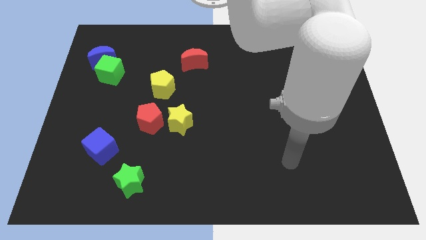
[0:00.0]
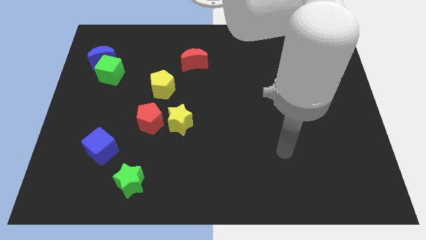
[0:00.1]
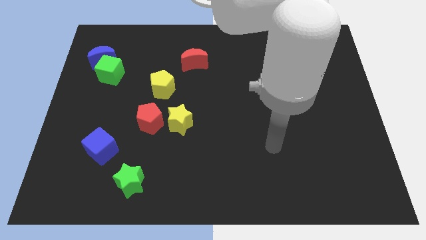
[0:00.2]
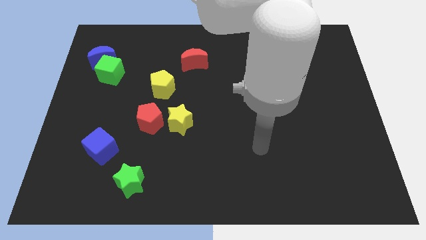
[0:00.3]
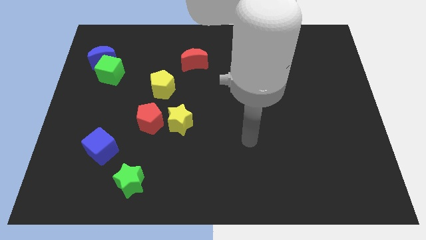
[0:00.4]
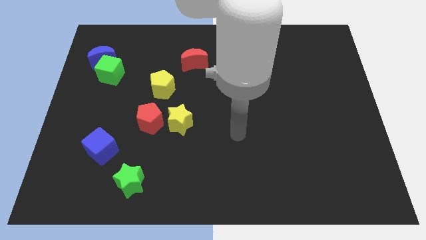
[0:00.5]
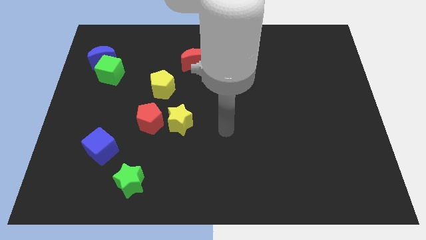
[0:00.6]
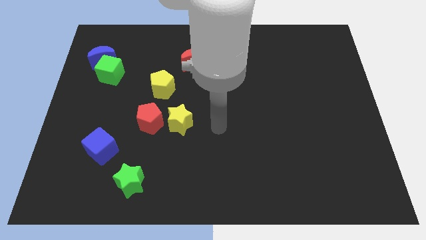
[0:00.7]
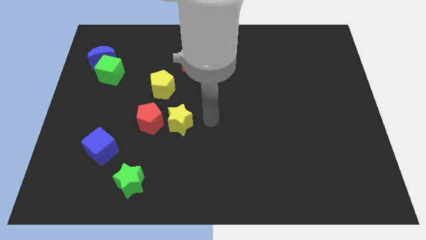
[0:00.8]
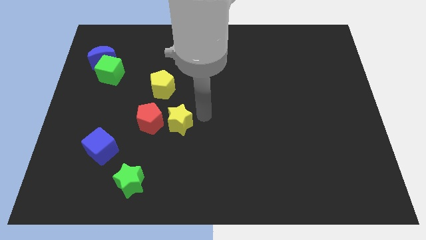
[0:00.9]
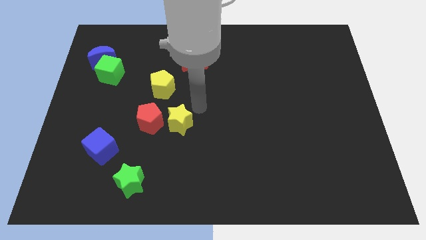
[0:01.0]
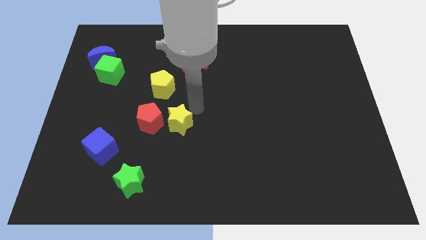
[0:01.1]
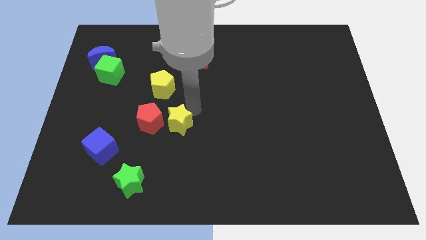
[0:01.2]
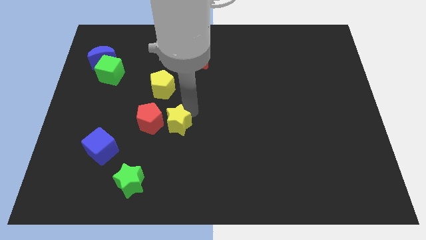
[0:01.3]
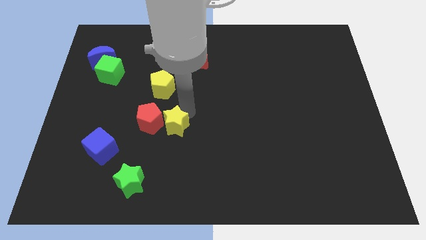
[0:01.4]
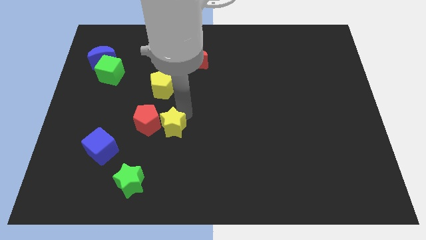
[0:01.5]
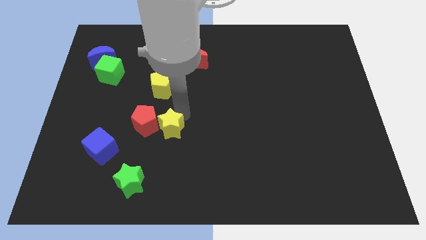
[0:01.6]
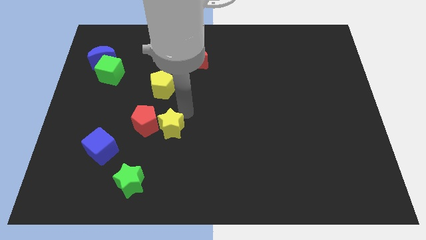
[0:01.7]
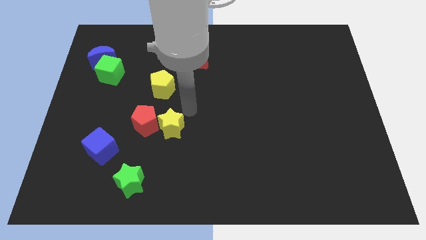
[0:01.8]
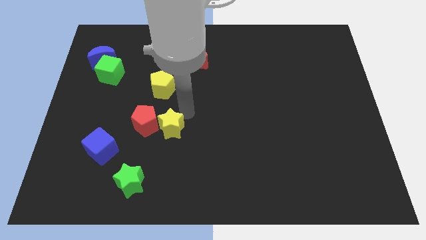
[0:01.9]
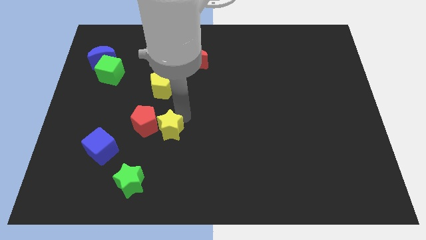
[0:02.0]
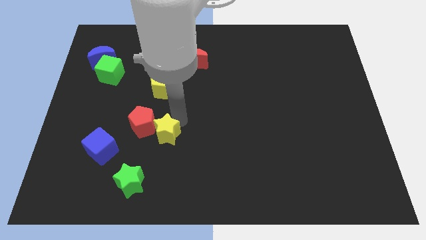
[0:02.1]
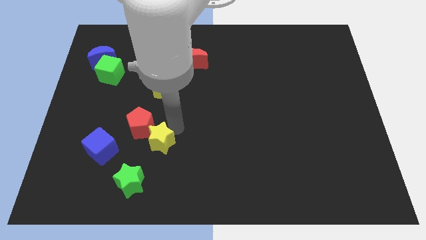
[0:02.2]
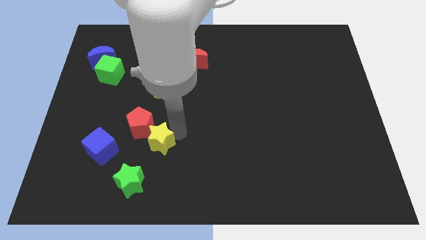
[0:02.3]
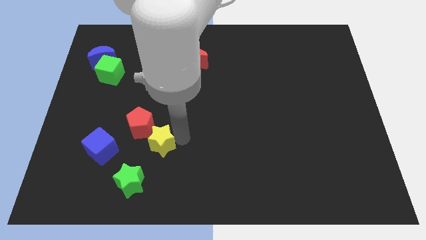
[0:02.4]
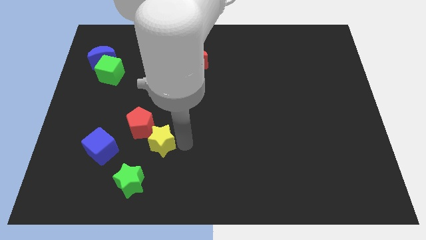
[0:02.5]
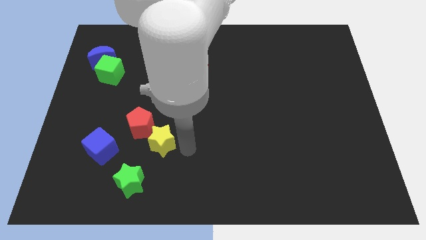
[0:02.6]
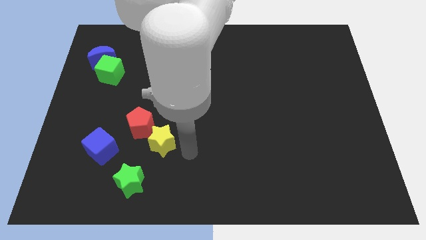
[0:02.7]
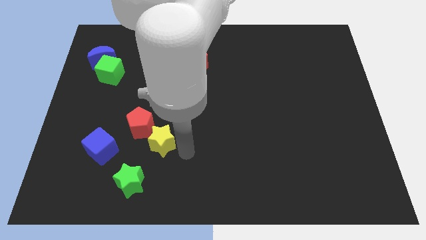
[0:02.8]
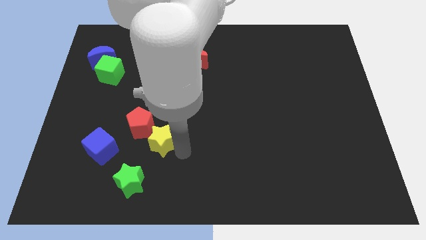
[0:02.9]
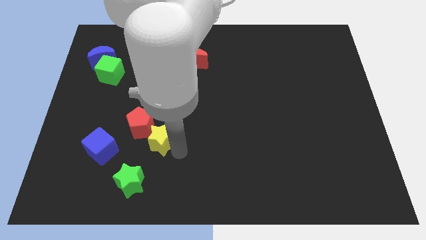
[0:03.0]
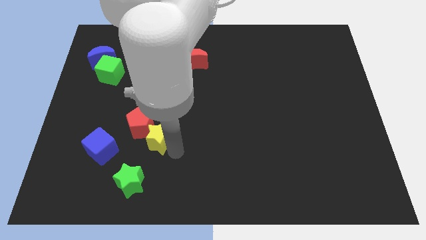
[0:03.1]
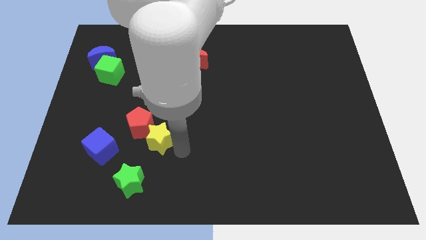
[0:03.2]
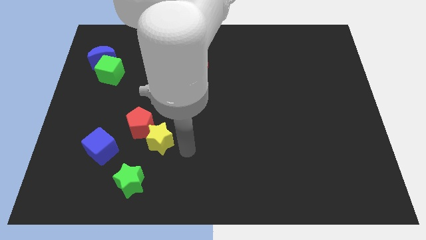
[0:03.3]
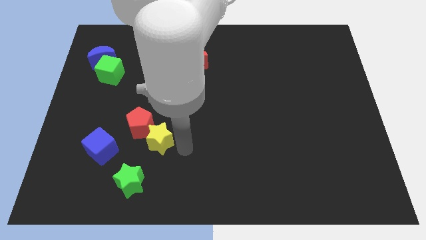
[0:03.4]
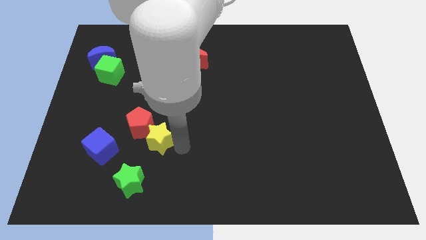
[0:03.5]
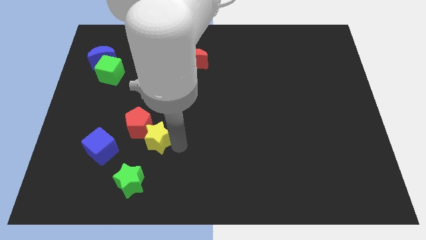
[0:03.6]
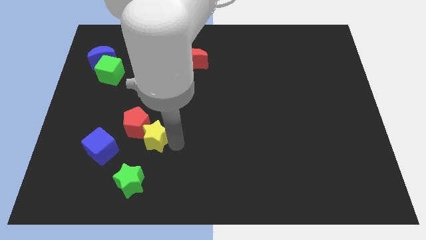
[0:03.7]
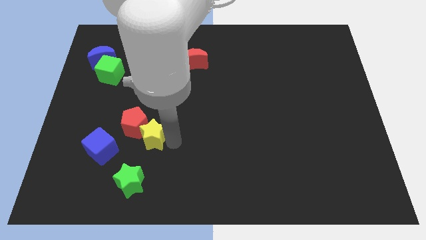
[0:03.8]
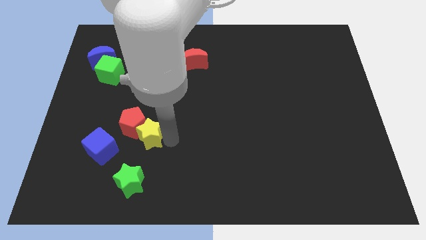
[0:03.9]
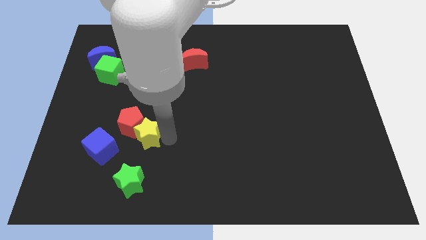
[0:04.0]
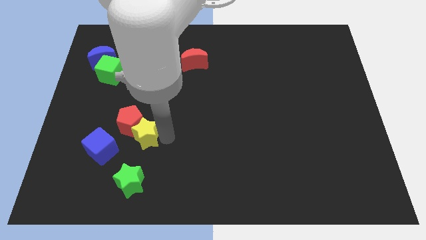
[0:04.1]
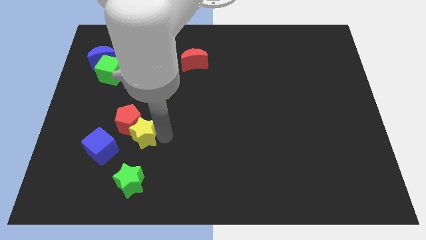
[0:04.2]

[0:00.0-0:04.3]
push the yellow star a little bit to the left

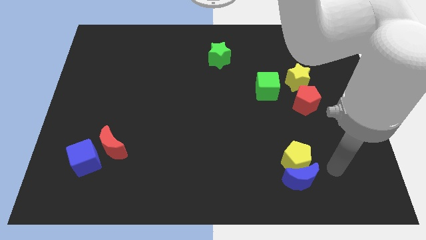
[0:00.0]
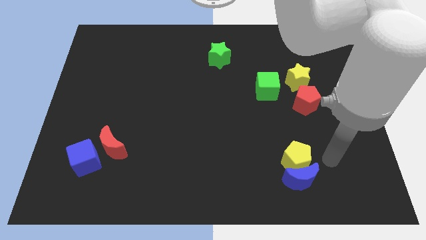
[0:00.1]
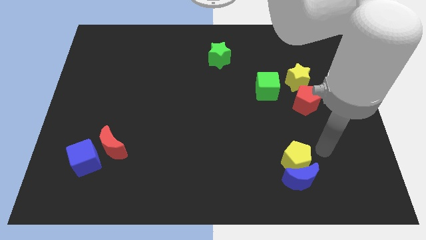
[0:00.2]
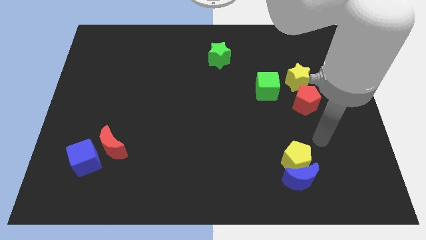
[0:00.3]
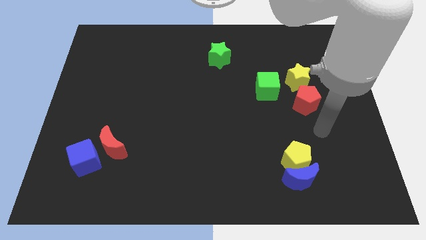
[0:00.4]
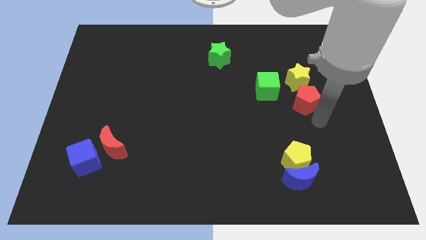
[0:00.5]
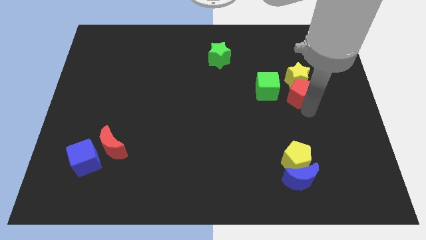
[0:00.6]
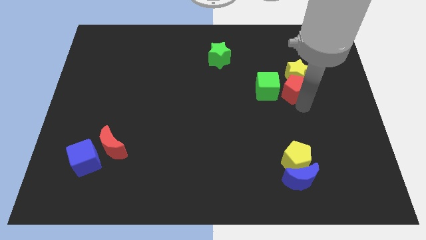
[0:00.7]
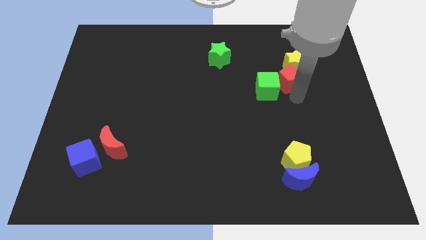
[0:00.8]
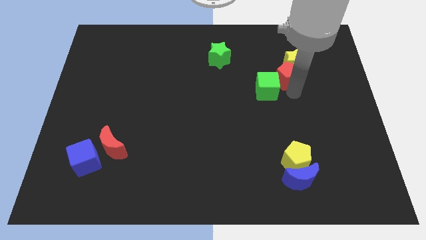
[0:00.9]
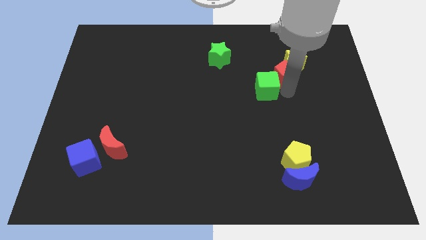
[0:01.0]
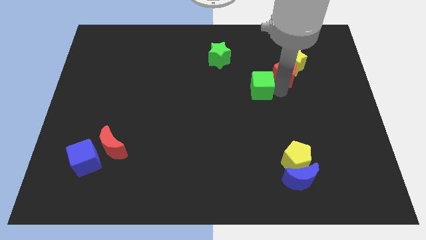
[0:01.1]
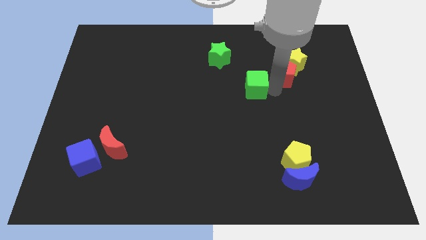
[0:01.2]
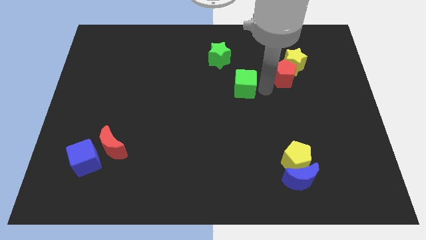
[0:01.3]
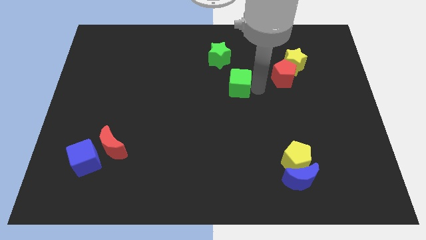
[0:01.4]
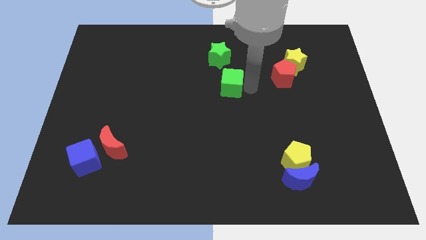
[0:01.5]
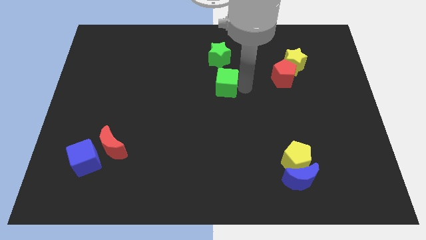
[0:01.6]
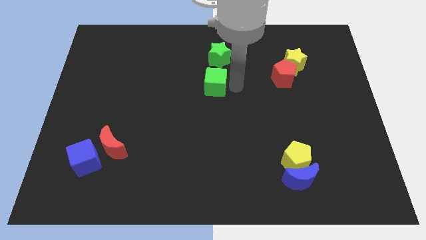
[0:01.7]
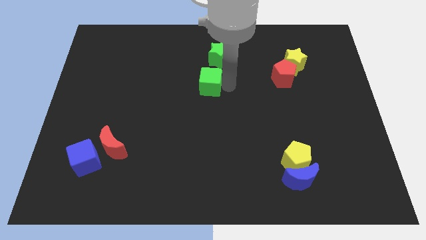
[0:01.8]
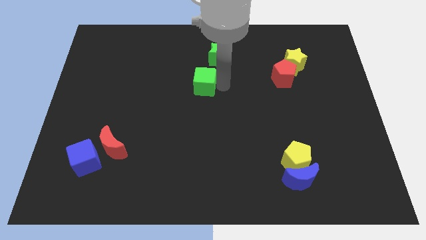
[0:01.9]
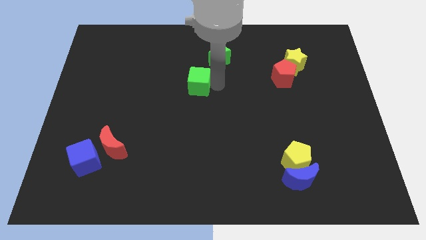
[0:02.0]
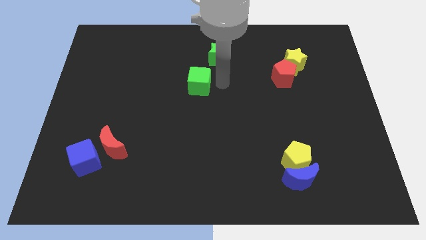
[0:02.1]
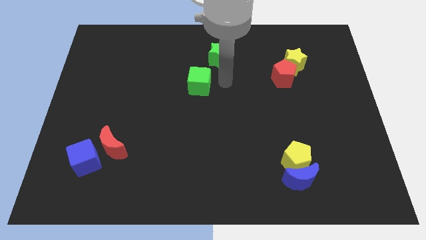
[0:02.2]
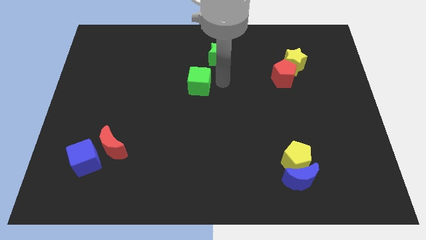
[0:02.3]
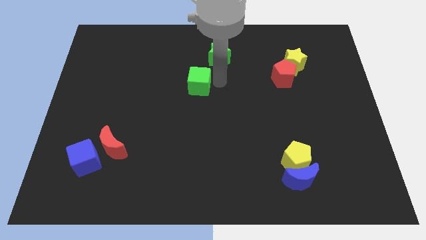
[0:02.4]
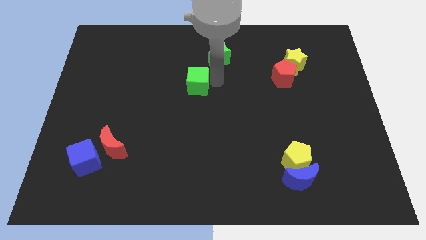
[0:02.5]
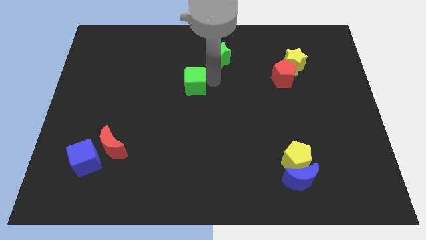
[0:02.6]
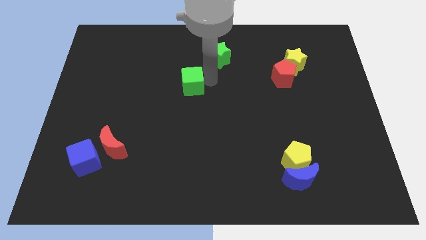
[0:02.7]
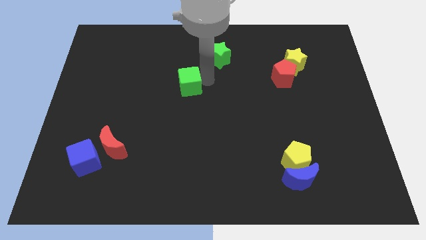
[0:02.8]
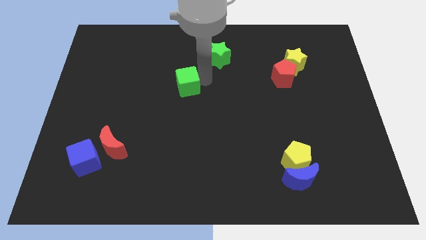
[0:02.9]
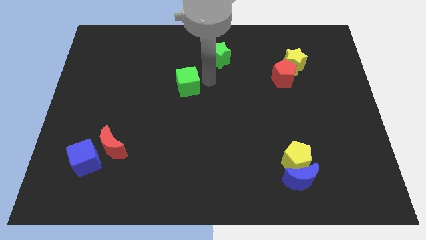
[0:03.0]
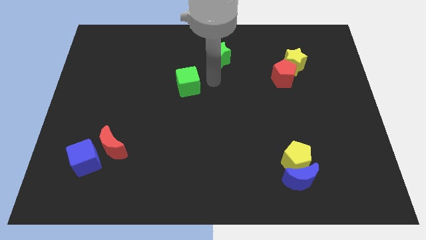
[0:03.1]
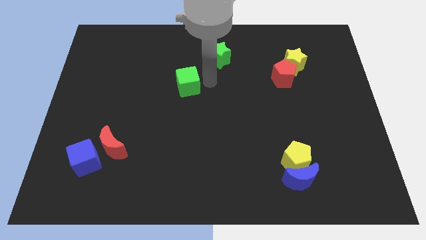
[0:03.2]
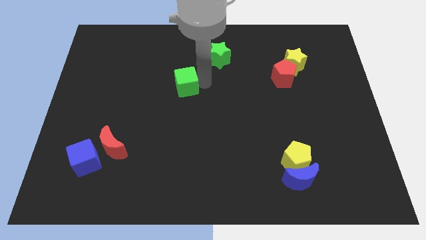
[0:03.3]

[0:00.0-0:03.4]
push the green cube to the left
